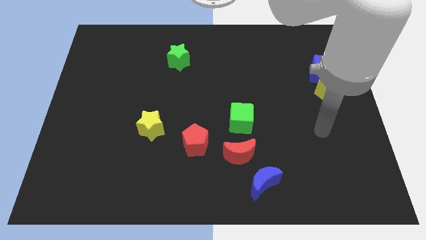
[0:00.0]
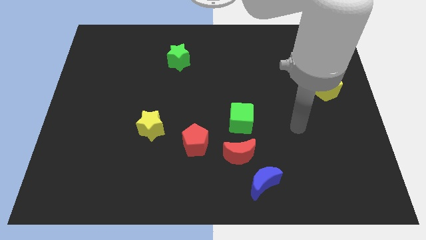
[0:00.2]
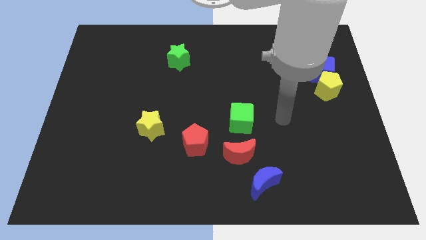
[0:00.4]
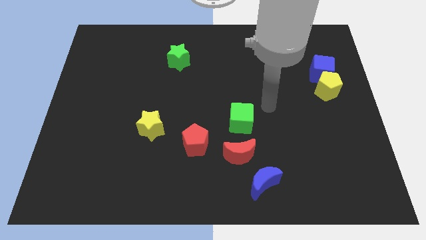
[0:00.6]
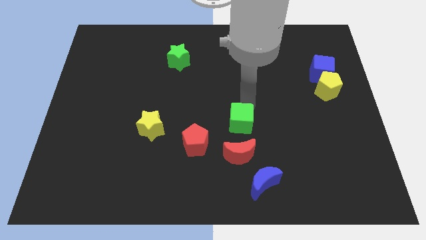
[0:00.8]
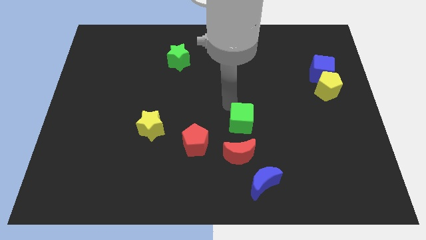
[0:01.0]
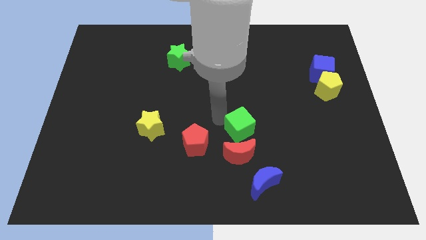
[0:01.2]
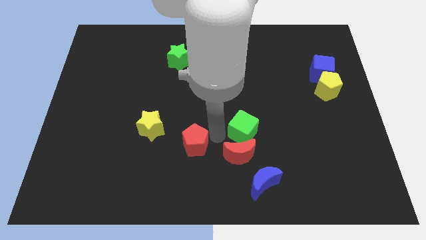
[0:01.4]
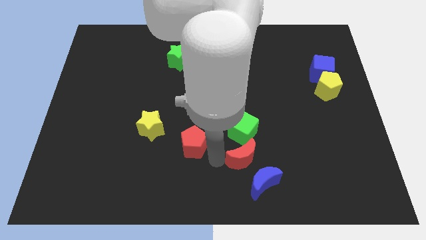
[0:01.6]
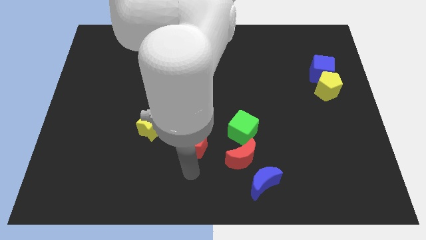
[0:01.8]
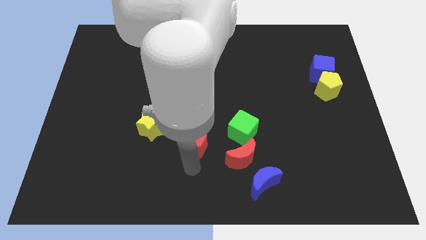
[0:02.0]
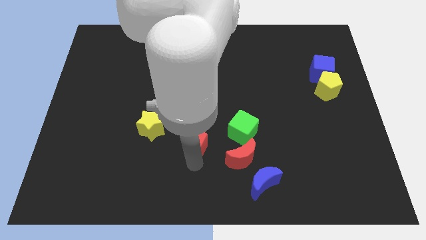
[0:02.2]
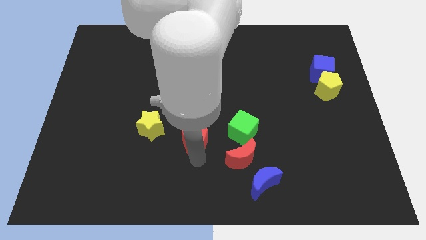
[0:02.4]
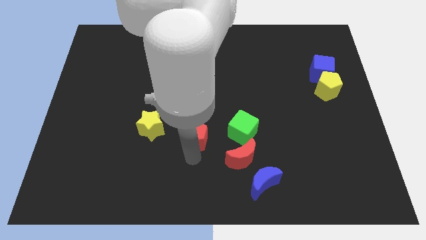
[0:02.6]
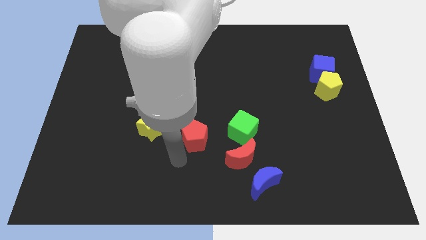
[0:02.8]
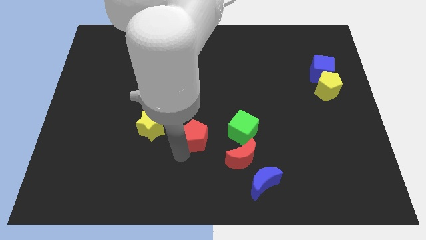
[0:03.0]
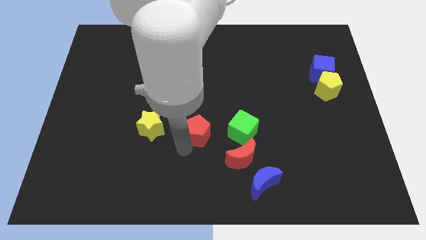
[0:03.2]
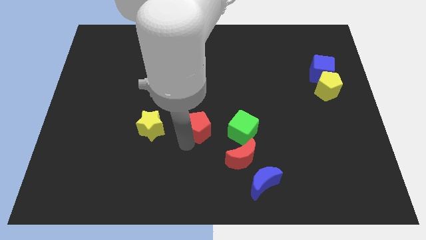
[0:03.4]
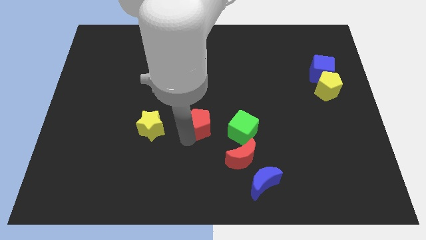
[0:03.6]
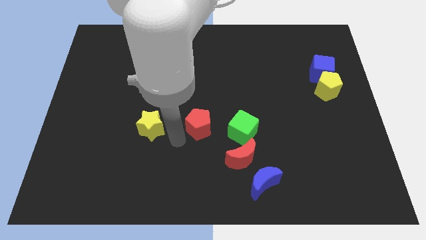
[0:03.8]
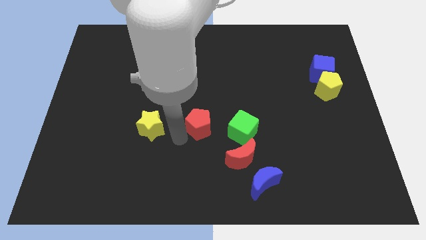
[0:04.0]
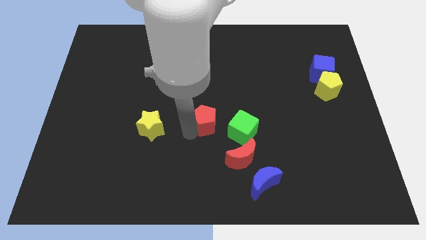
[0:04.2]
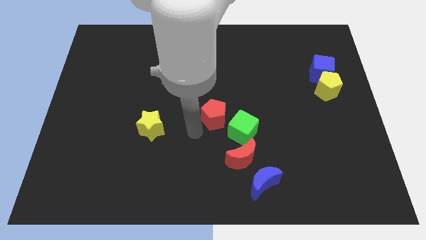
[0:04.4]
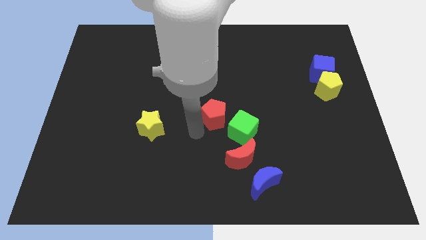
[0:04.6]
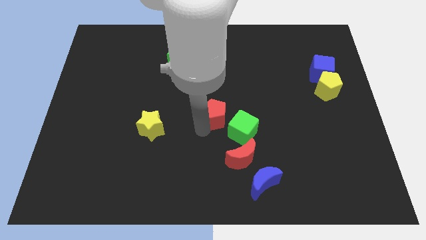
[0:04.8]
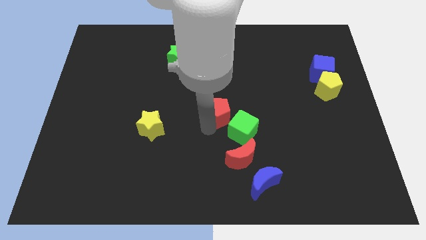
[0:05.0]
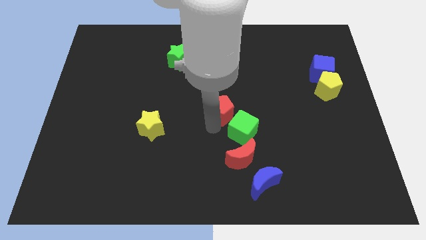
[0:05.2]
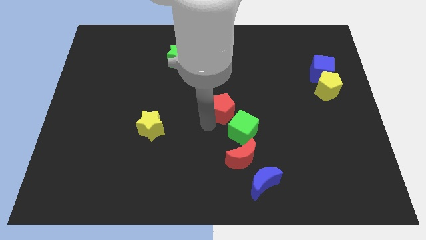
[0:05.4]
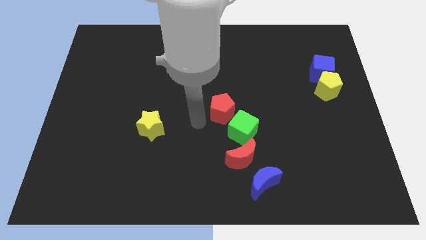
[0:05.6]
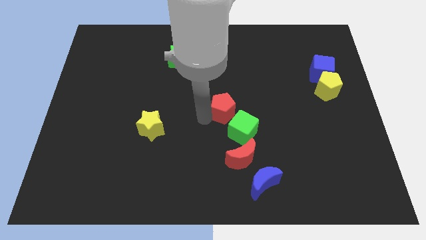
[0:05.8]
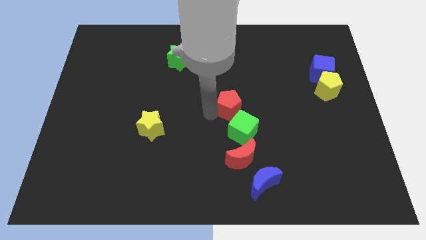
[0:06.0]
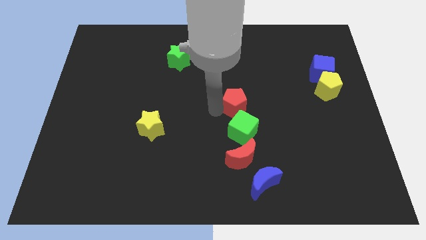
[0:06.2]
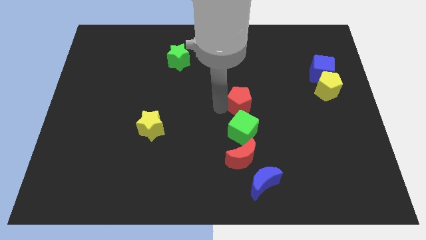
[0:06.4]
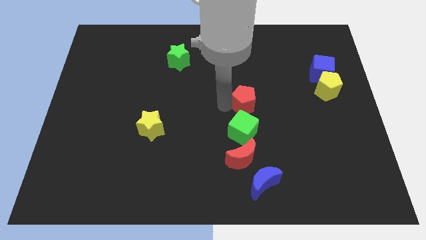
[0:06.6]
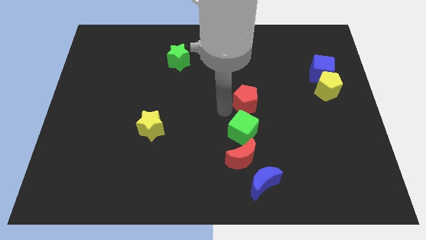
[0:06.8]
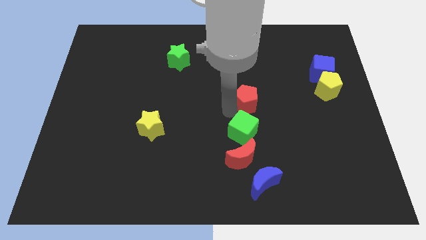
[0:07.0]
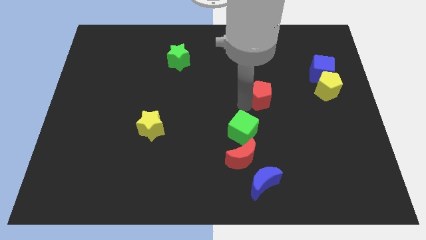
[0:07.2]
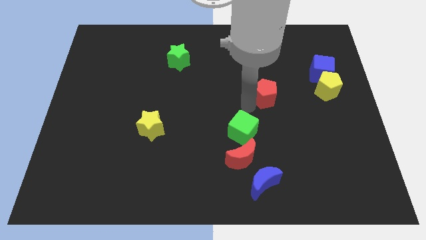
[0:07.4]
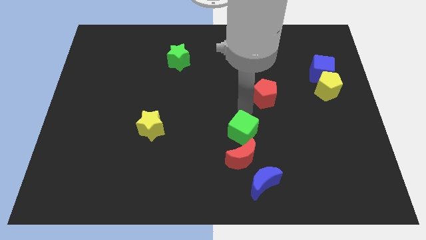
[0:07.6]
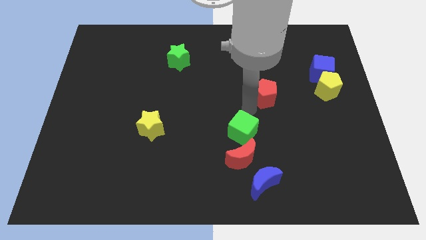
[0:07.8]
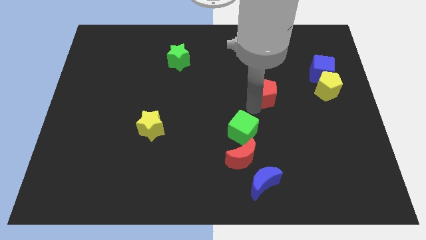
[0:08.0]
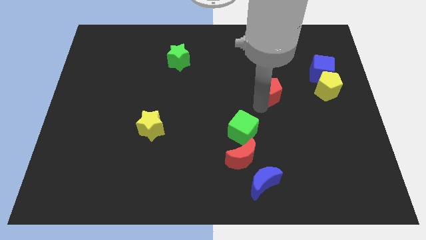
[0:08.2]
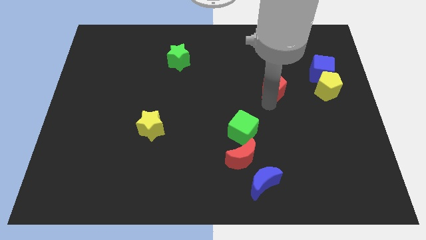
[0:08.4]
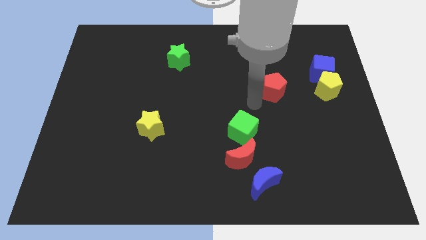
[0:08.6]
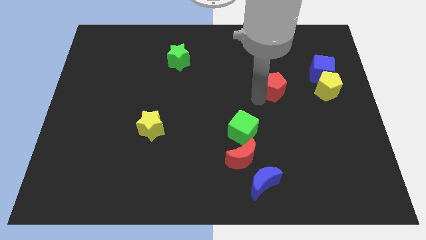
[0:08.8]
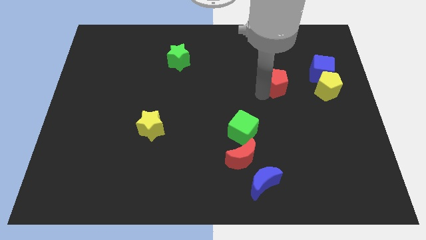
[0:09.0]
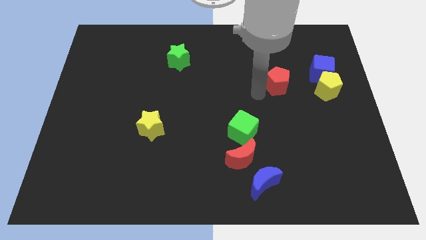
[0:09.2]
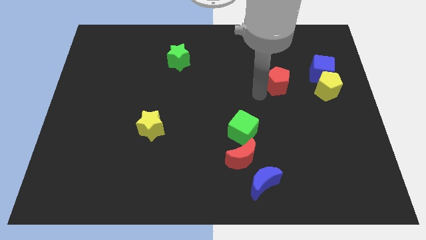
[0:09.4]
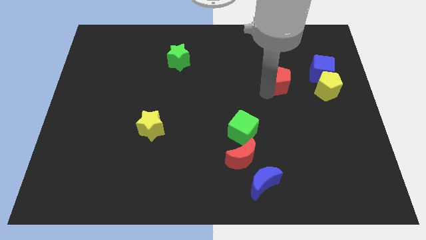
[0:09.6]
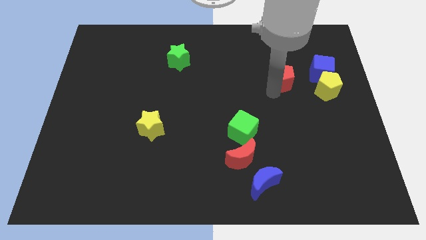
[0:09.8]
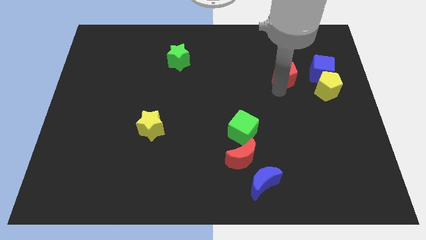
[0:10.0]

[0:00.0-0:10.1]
move the red pentagon diagonally up and to the left of the yellow pentagon

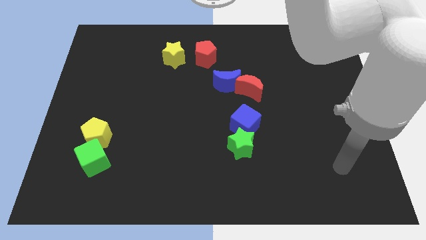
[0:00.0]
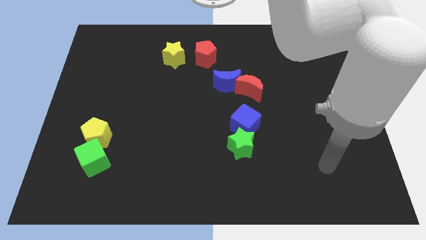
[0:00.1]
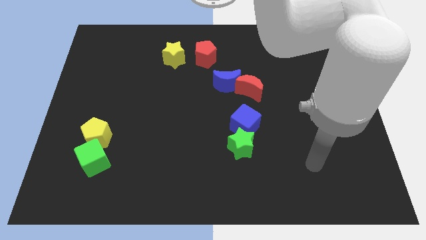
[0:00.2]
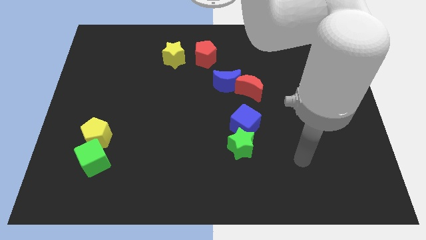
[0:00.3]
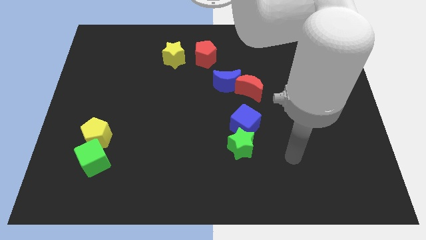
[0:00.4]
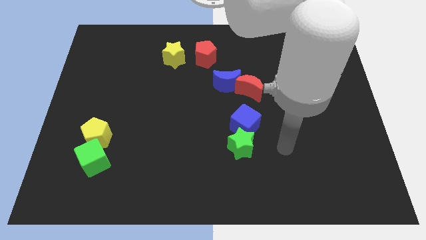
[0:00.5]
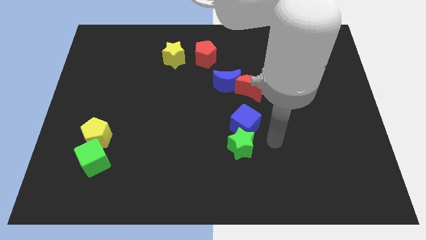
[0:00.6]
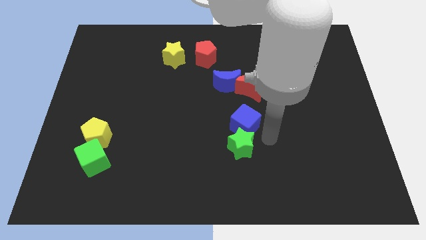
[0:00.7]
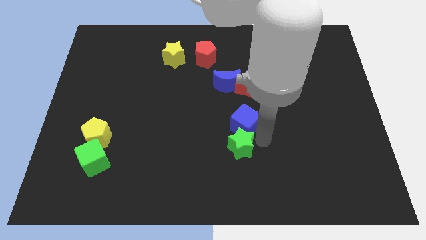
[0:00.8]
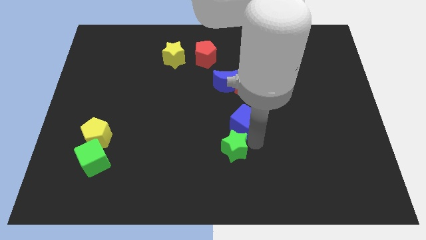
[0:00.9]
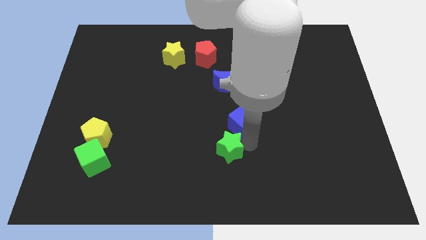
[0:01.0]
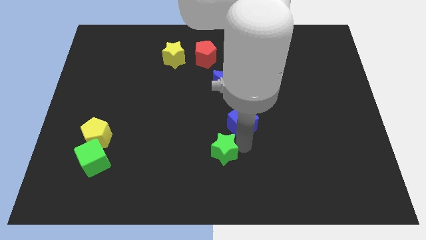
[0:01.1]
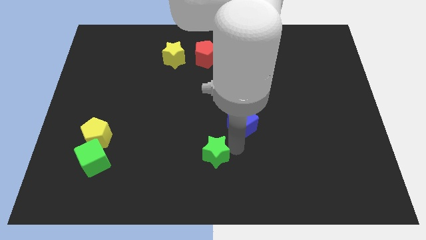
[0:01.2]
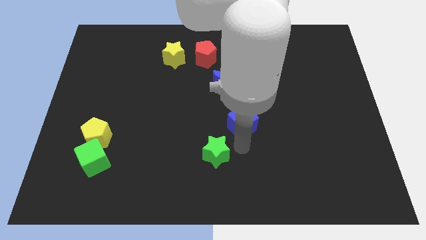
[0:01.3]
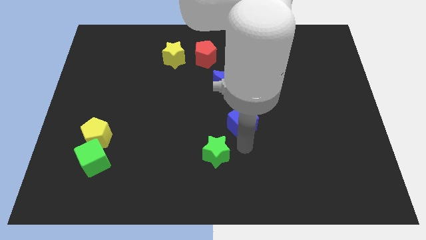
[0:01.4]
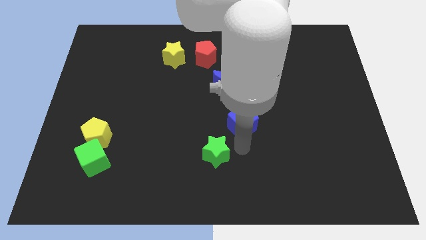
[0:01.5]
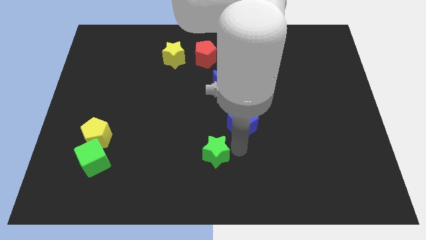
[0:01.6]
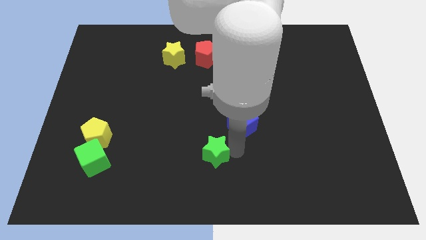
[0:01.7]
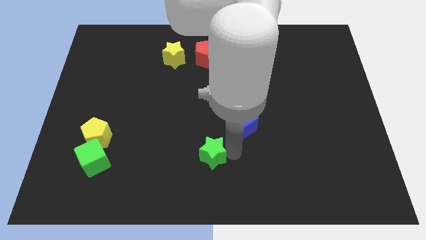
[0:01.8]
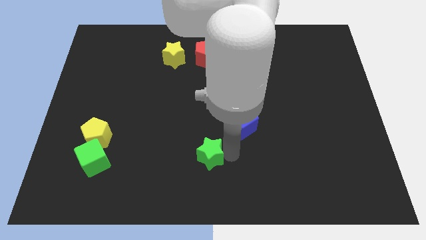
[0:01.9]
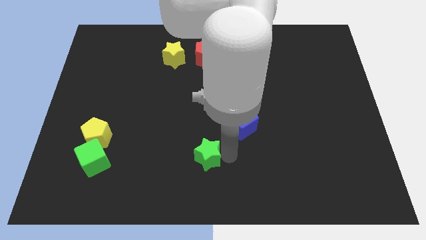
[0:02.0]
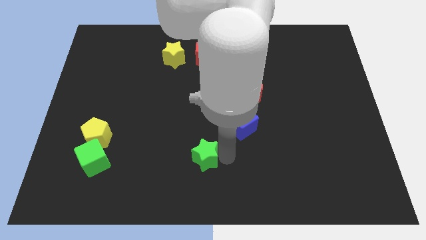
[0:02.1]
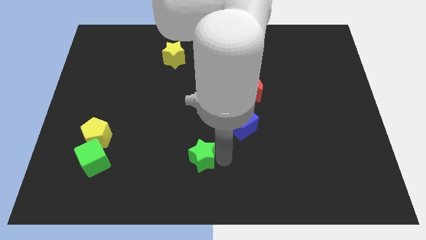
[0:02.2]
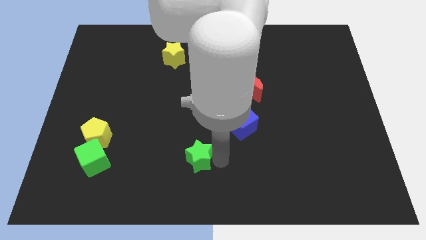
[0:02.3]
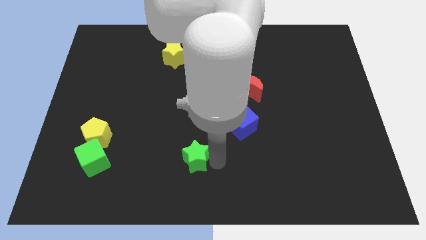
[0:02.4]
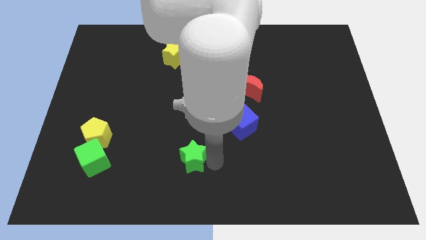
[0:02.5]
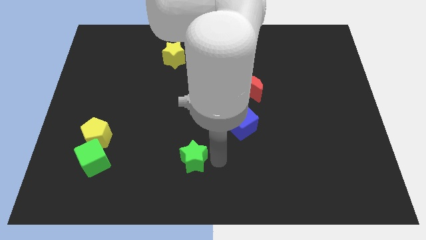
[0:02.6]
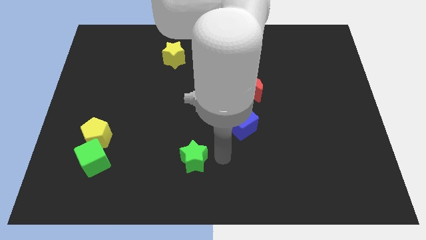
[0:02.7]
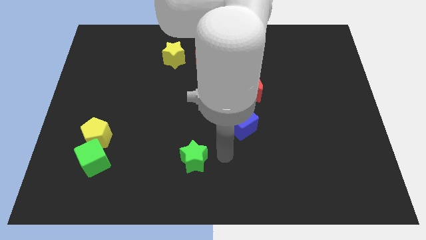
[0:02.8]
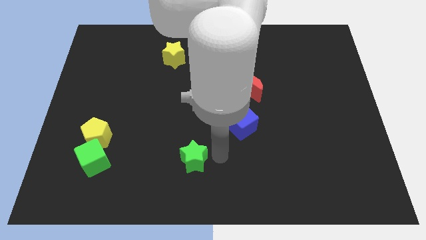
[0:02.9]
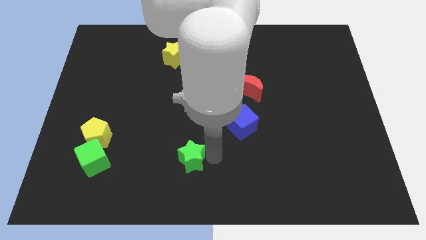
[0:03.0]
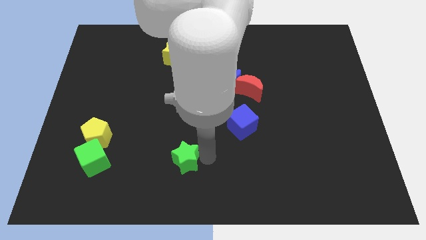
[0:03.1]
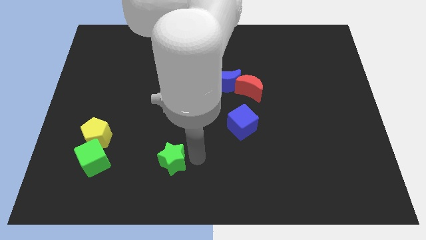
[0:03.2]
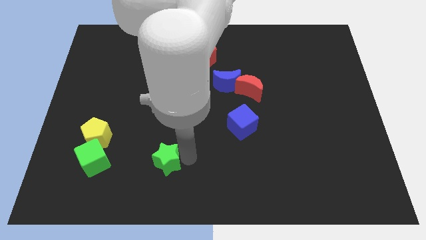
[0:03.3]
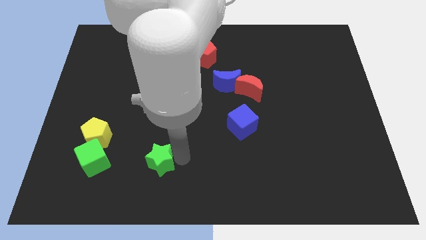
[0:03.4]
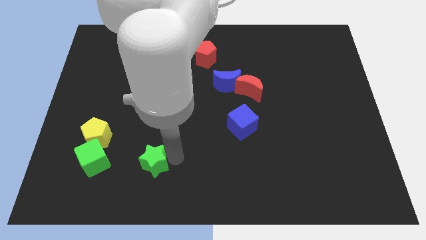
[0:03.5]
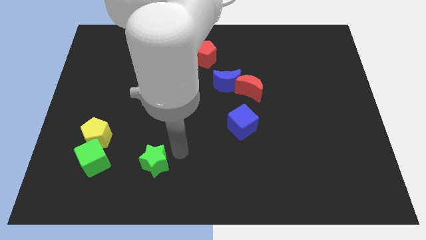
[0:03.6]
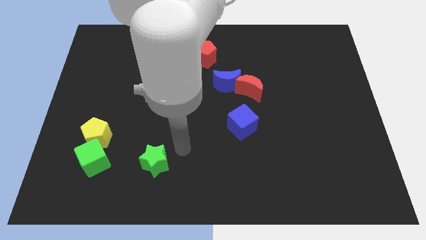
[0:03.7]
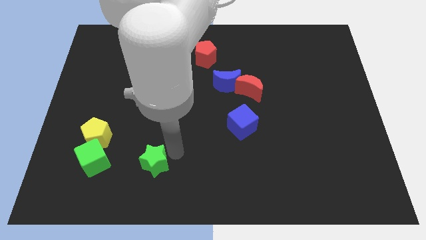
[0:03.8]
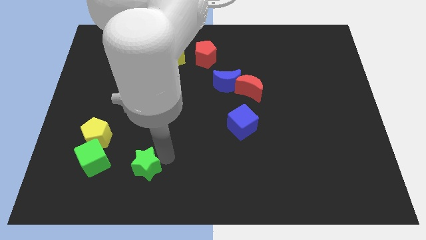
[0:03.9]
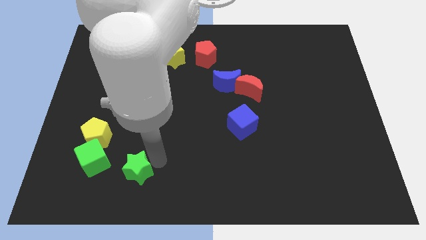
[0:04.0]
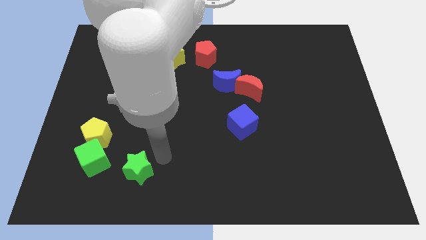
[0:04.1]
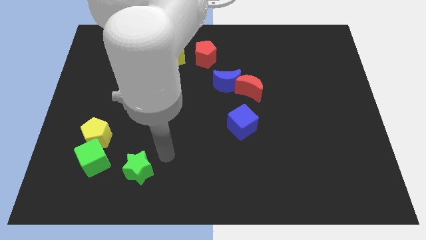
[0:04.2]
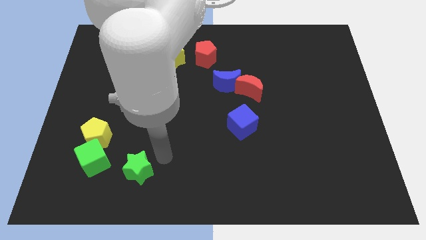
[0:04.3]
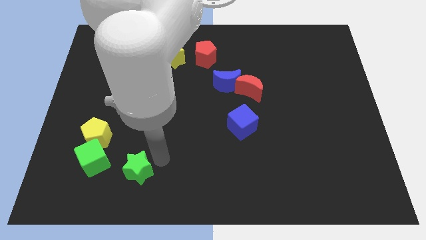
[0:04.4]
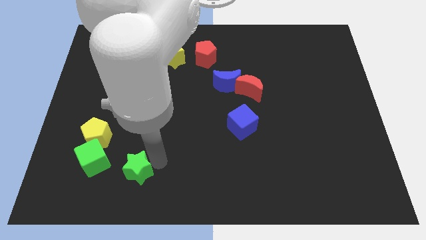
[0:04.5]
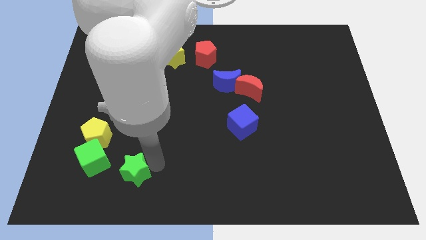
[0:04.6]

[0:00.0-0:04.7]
slide the green star to the bottom right of the green cube
